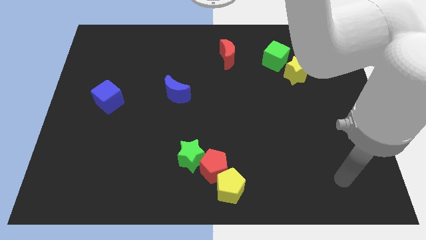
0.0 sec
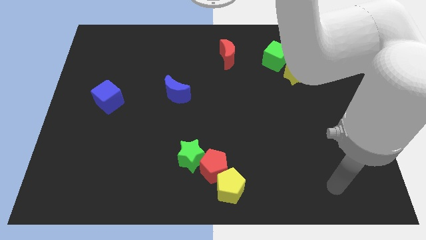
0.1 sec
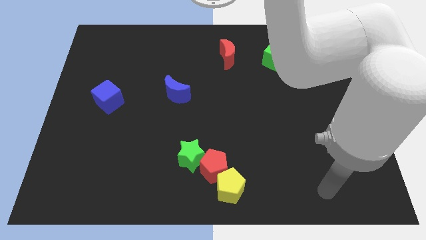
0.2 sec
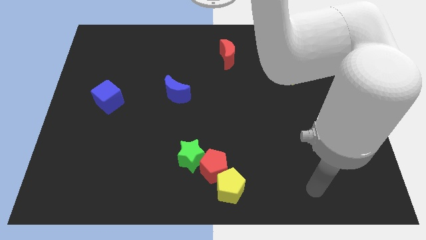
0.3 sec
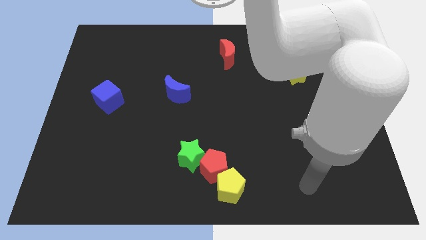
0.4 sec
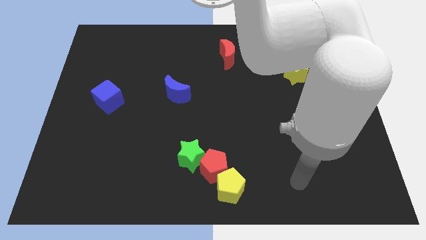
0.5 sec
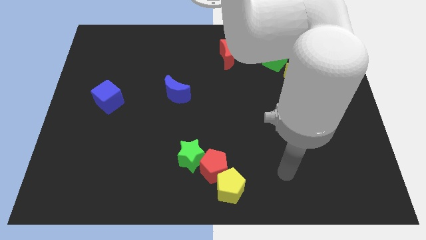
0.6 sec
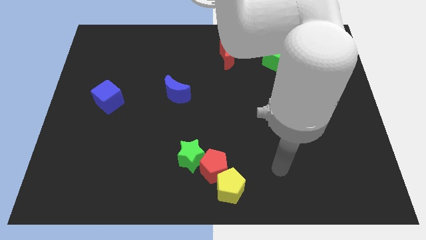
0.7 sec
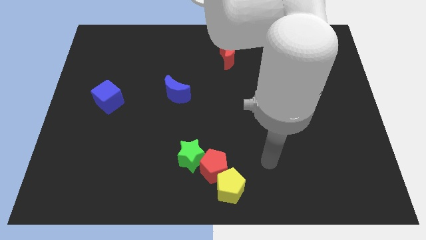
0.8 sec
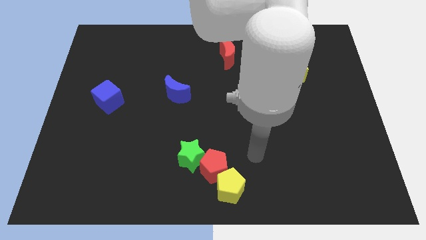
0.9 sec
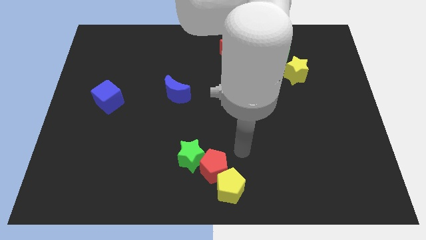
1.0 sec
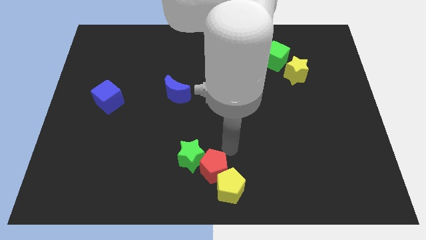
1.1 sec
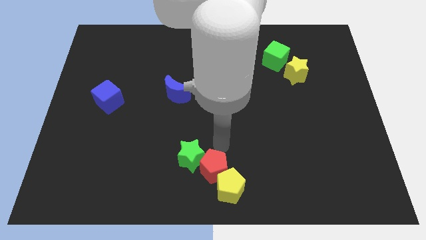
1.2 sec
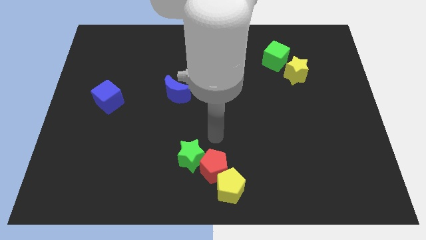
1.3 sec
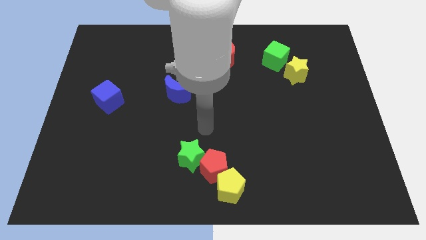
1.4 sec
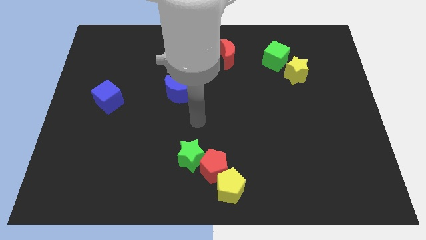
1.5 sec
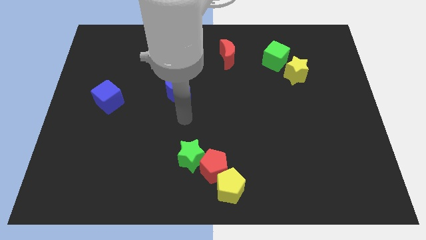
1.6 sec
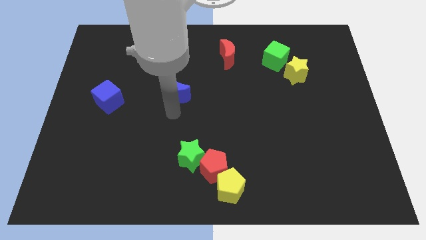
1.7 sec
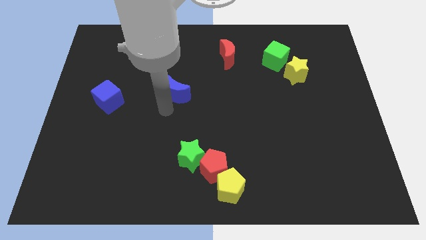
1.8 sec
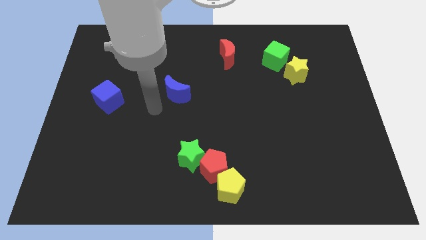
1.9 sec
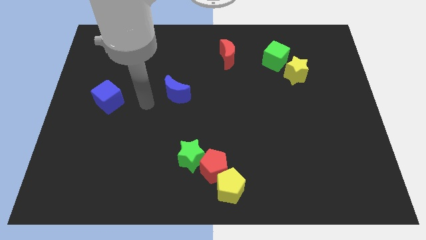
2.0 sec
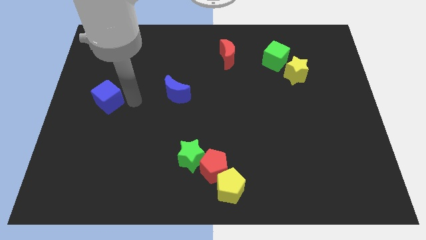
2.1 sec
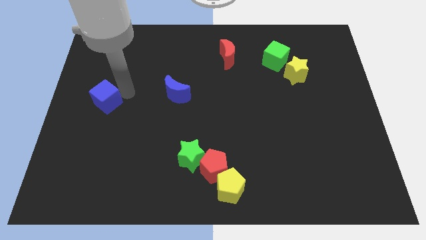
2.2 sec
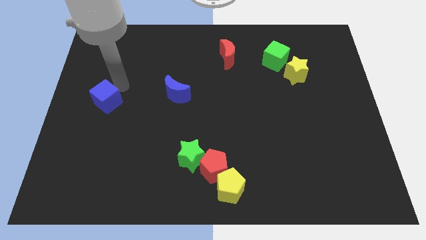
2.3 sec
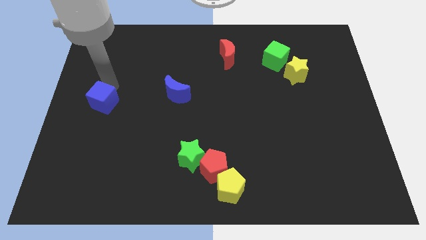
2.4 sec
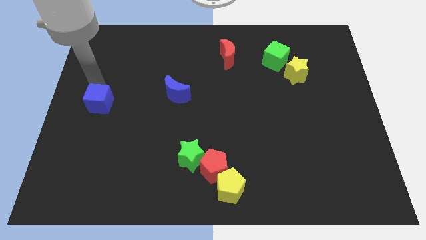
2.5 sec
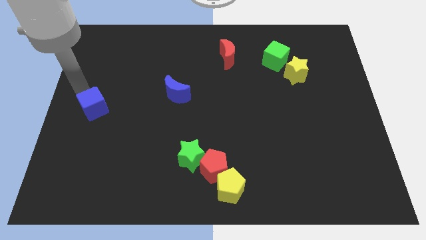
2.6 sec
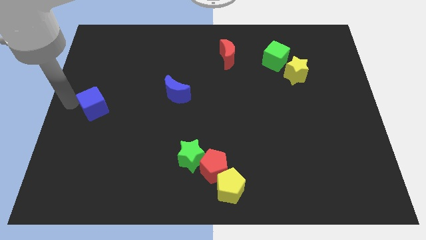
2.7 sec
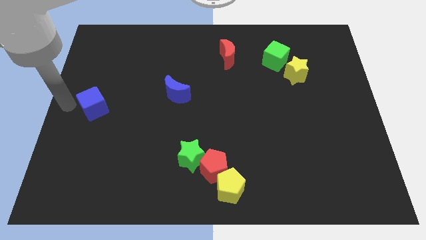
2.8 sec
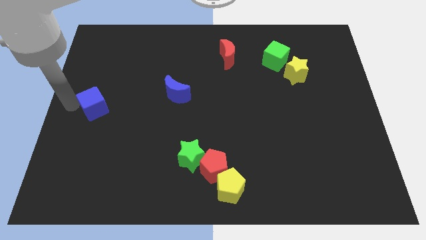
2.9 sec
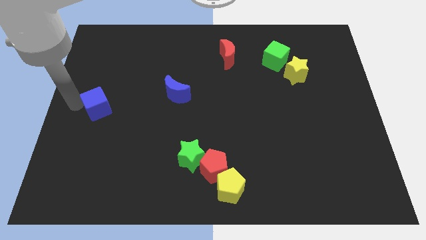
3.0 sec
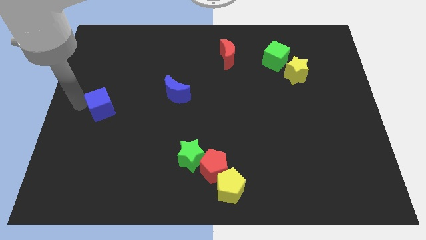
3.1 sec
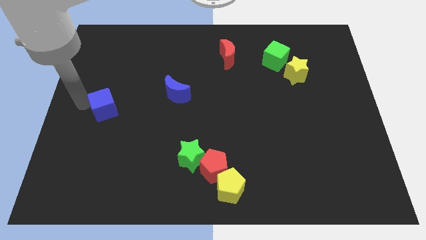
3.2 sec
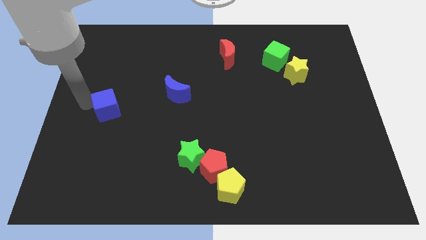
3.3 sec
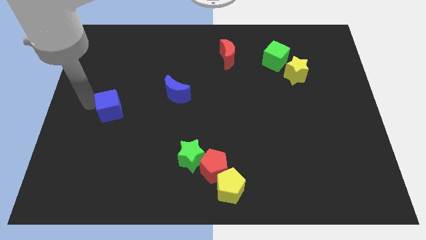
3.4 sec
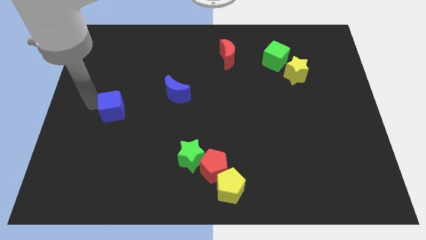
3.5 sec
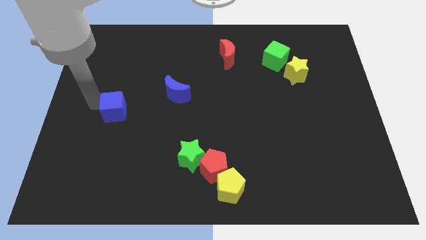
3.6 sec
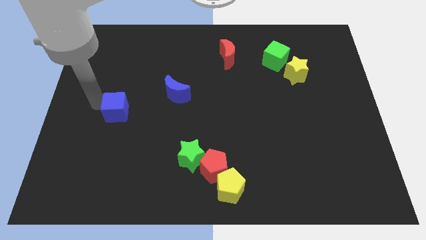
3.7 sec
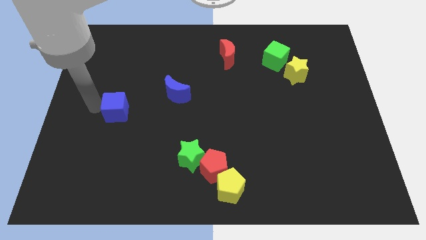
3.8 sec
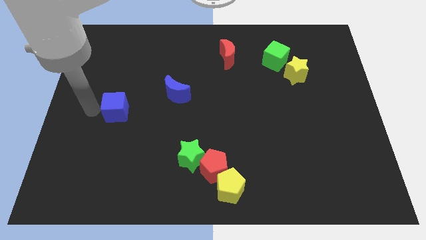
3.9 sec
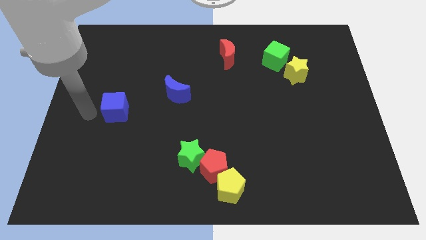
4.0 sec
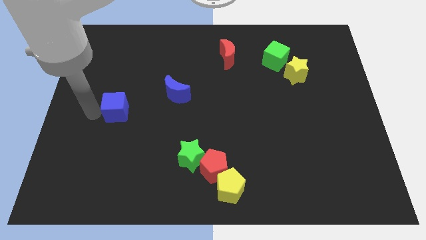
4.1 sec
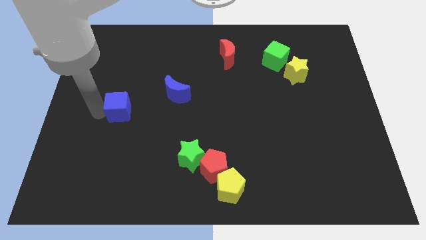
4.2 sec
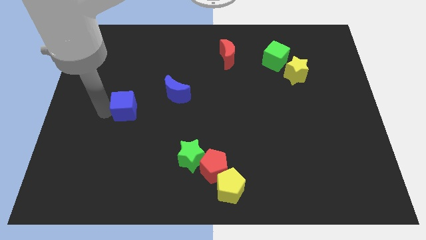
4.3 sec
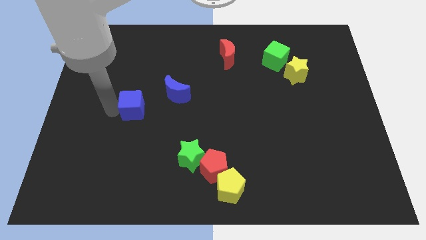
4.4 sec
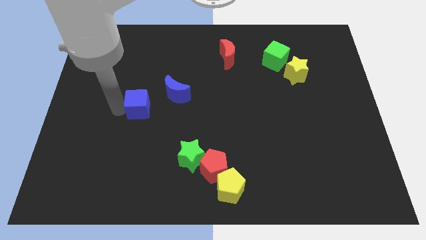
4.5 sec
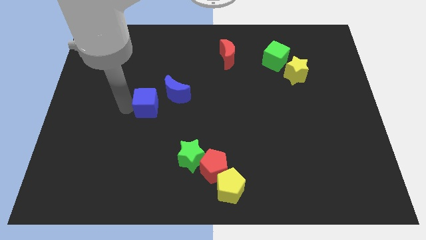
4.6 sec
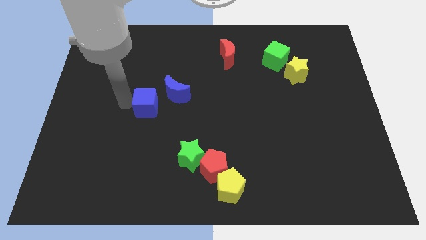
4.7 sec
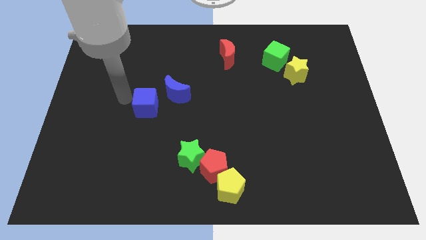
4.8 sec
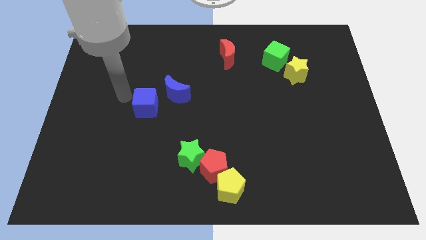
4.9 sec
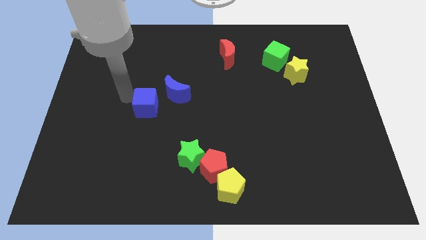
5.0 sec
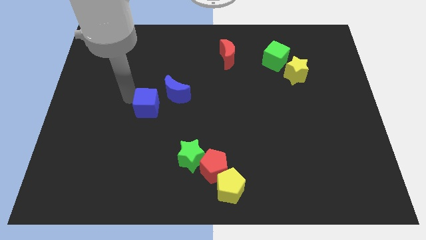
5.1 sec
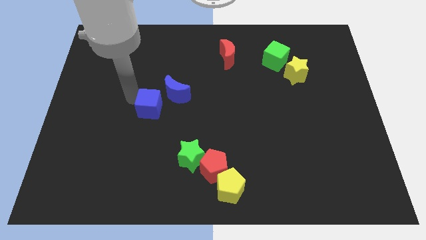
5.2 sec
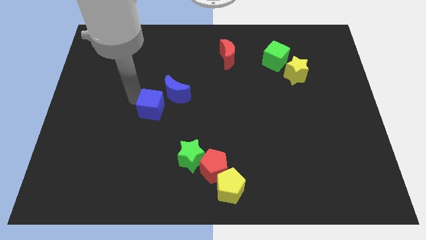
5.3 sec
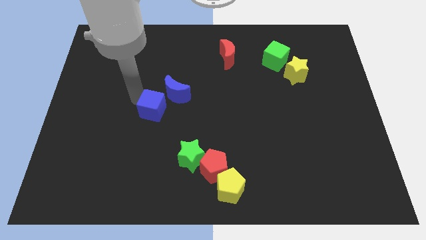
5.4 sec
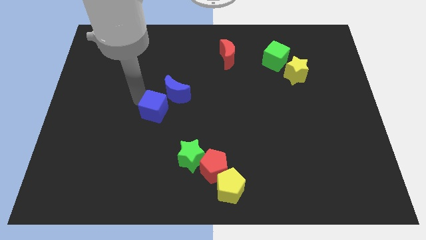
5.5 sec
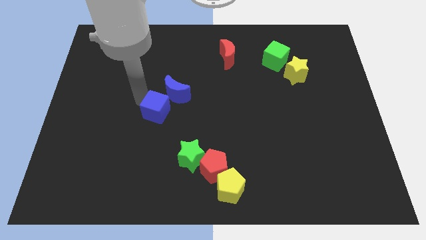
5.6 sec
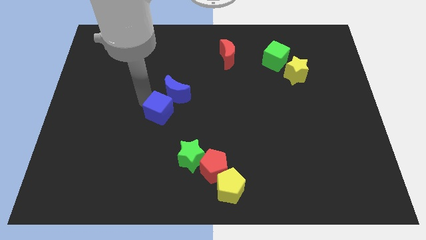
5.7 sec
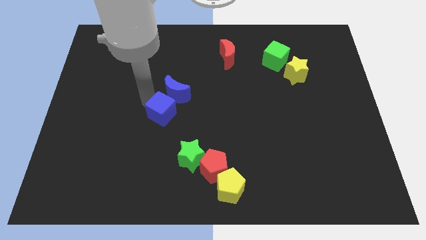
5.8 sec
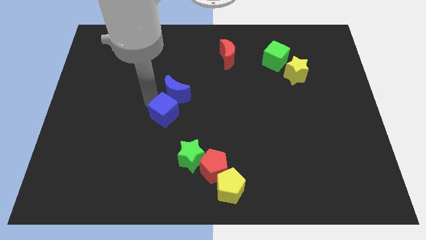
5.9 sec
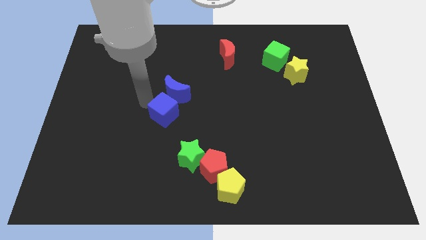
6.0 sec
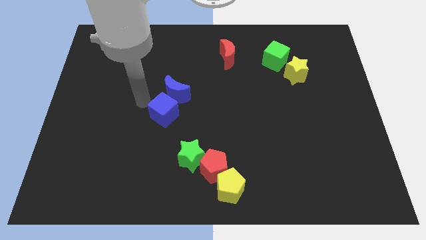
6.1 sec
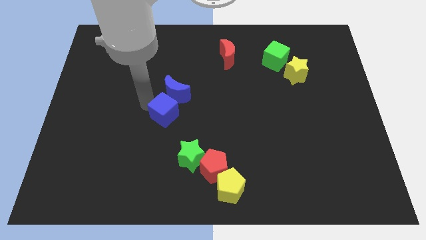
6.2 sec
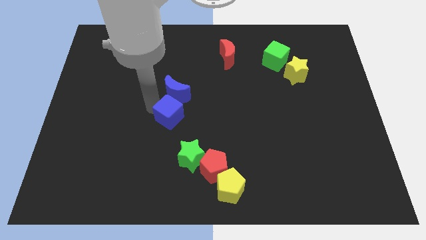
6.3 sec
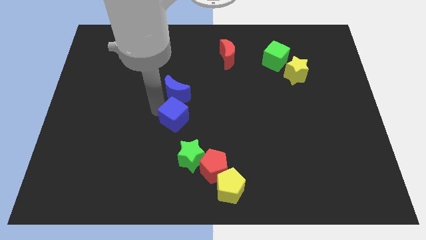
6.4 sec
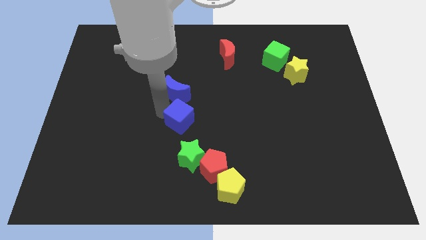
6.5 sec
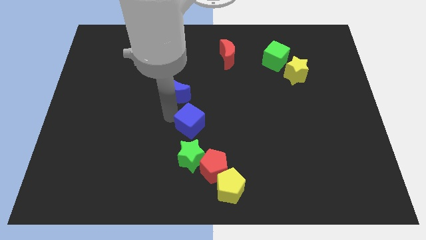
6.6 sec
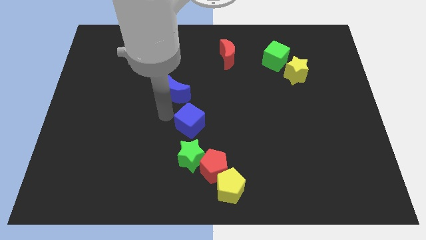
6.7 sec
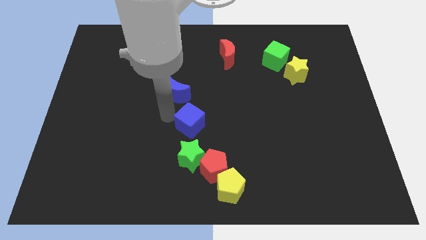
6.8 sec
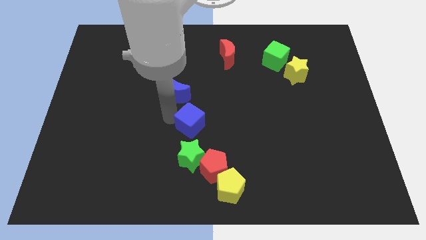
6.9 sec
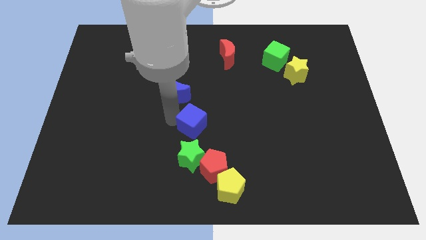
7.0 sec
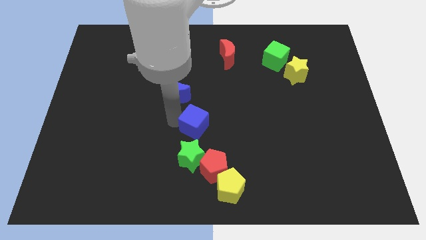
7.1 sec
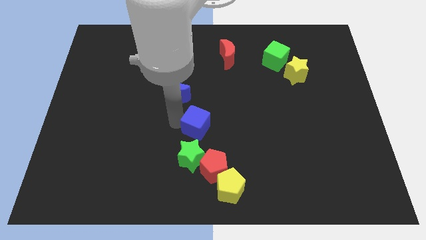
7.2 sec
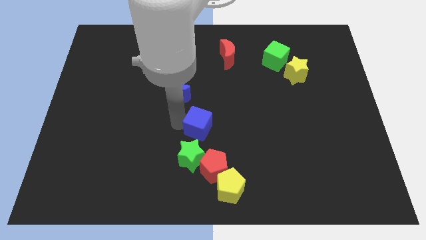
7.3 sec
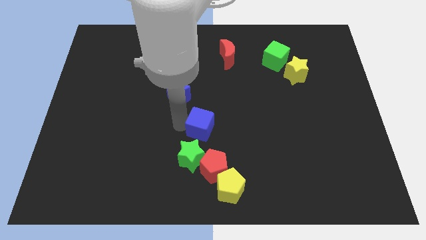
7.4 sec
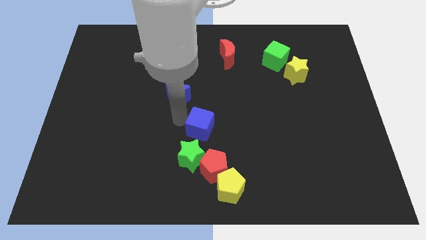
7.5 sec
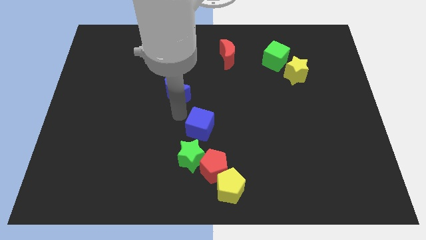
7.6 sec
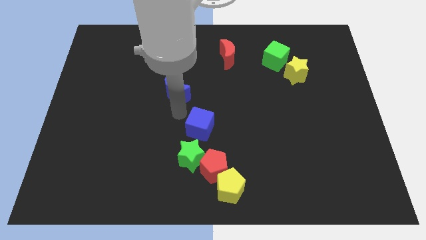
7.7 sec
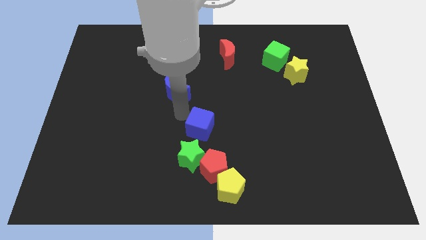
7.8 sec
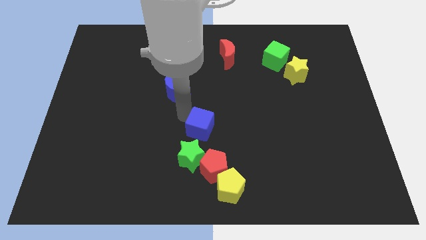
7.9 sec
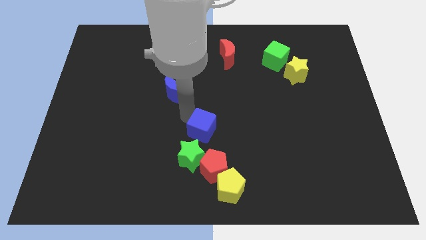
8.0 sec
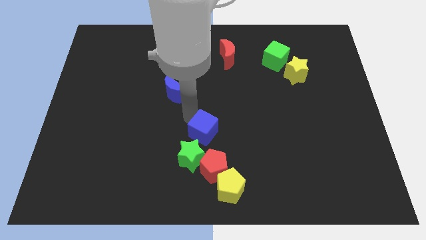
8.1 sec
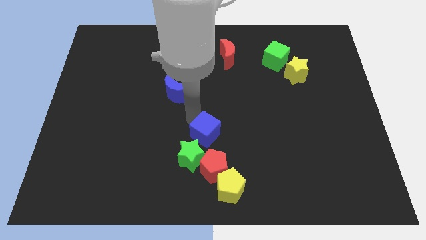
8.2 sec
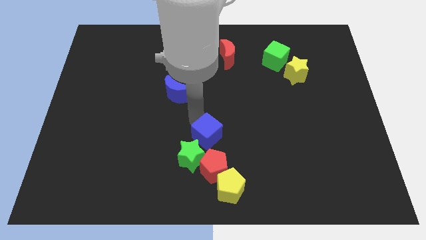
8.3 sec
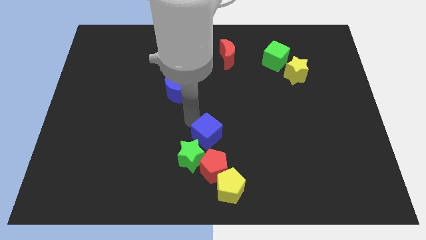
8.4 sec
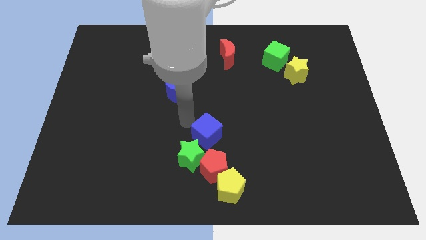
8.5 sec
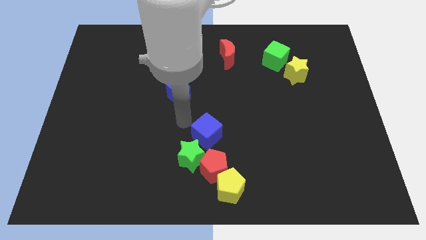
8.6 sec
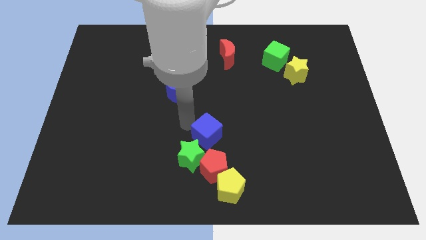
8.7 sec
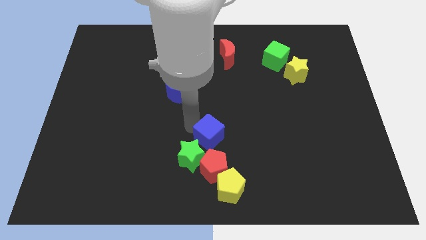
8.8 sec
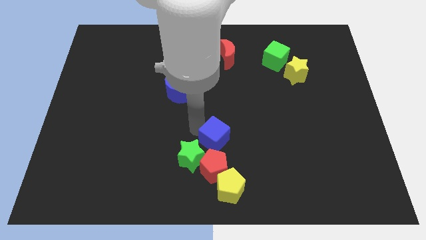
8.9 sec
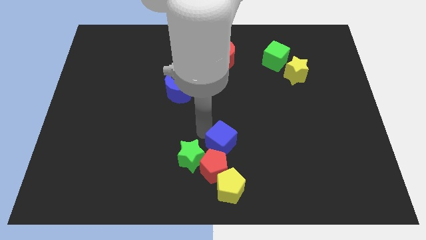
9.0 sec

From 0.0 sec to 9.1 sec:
slide the blue cube just right of the green star
